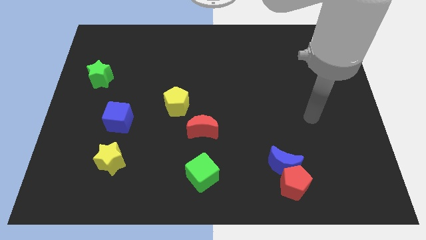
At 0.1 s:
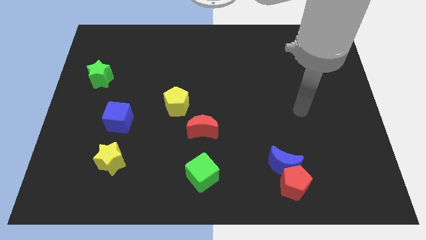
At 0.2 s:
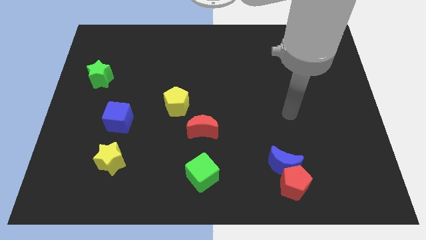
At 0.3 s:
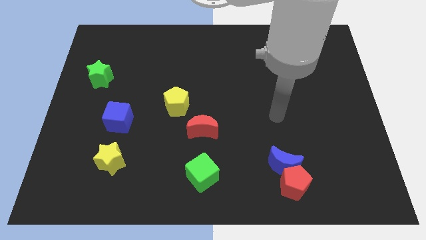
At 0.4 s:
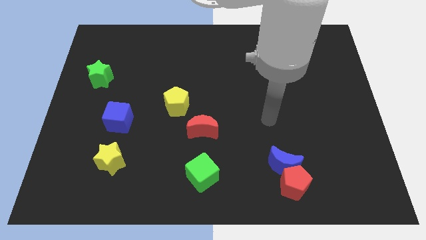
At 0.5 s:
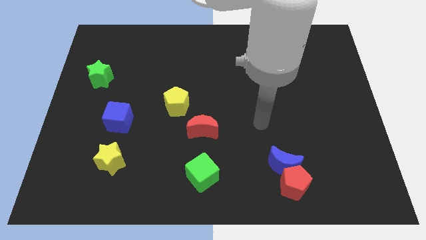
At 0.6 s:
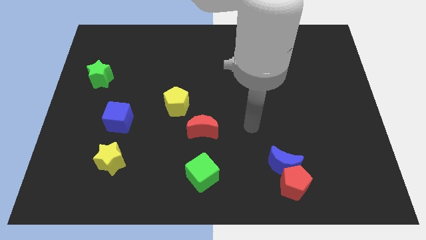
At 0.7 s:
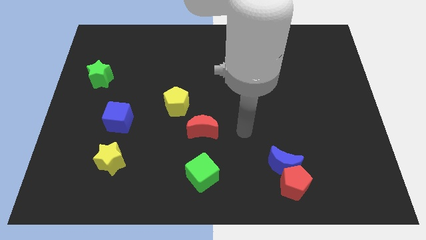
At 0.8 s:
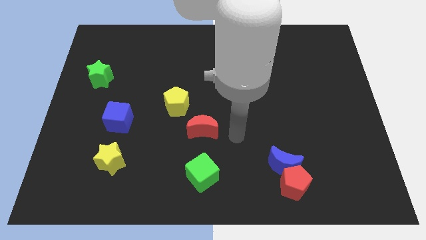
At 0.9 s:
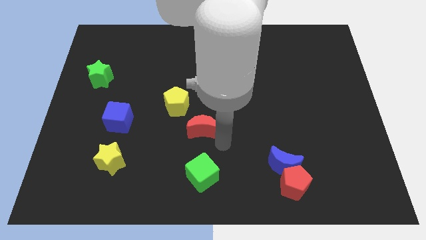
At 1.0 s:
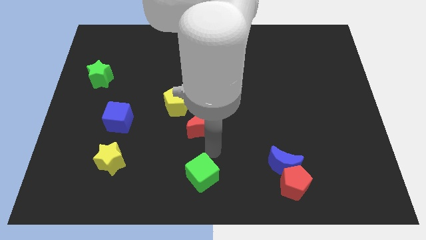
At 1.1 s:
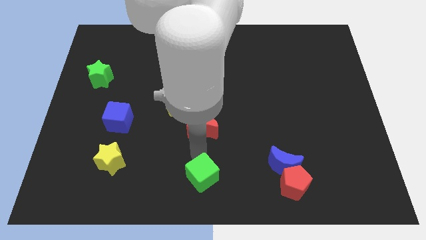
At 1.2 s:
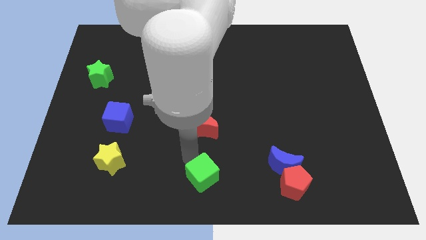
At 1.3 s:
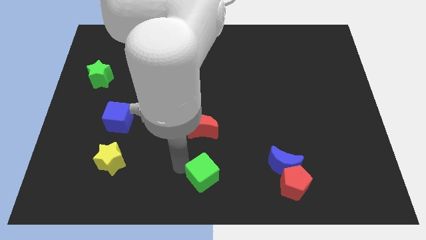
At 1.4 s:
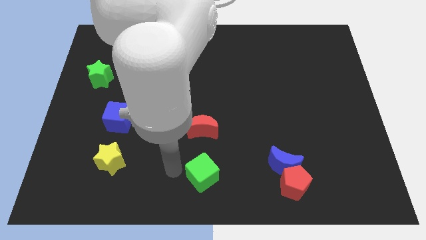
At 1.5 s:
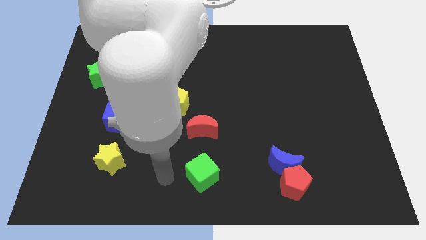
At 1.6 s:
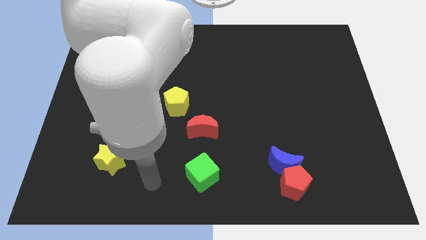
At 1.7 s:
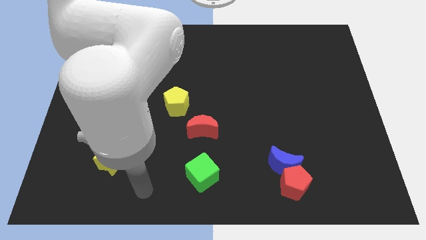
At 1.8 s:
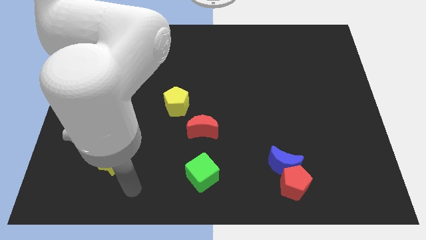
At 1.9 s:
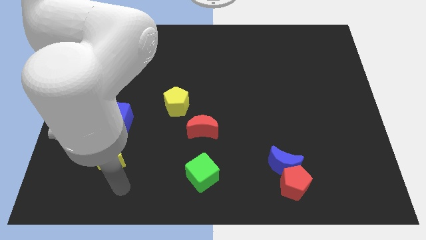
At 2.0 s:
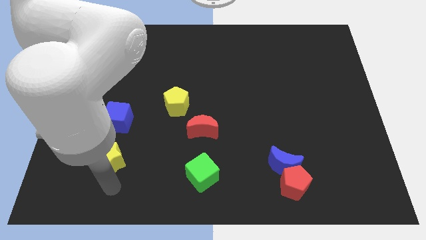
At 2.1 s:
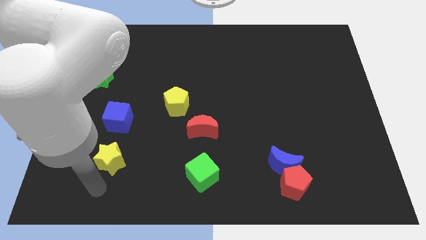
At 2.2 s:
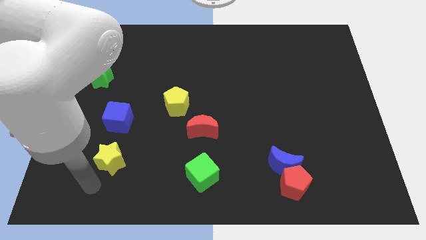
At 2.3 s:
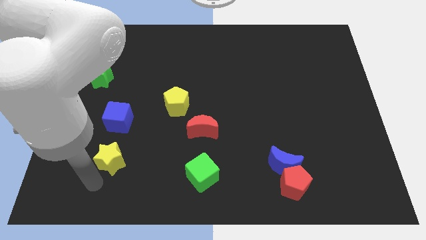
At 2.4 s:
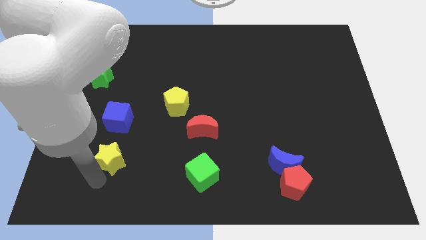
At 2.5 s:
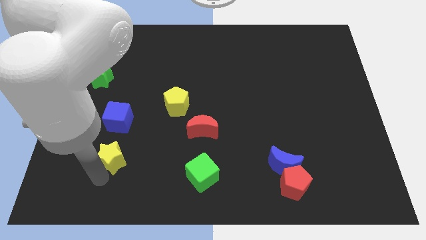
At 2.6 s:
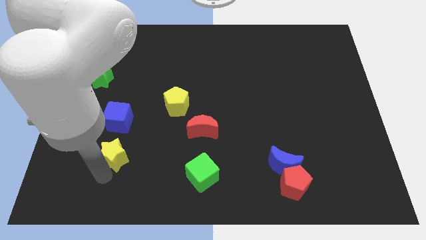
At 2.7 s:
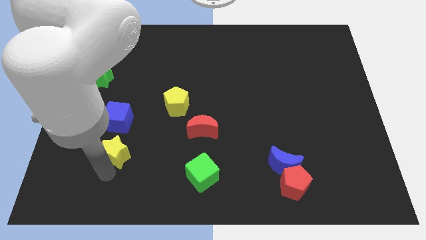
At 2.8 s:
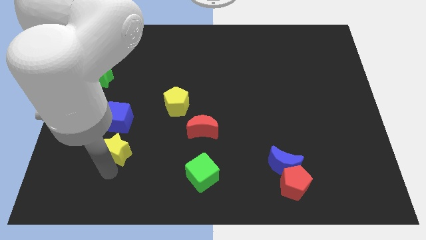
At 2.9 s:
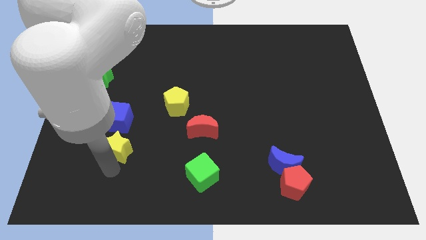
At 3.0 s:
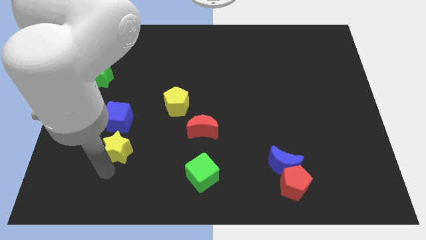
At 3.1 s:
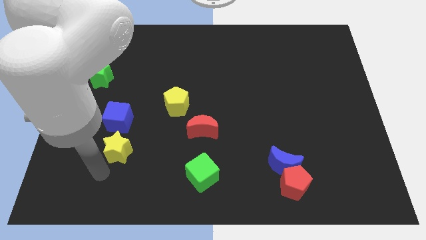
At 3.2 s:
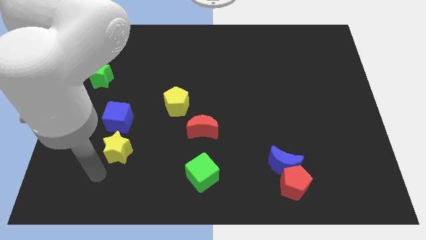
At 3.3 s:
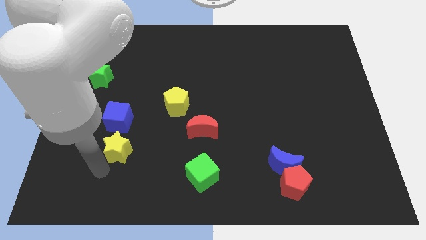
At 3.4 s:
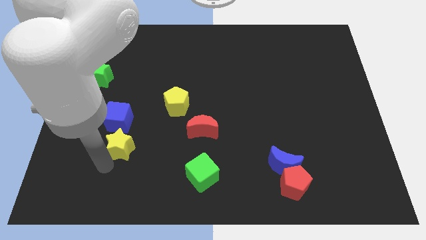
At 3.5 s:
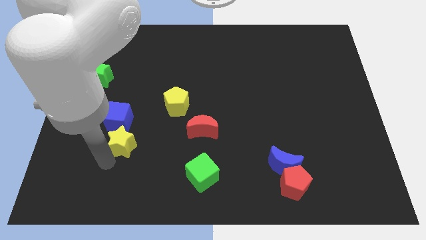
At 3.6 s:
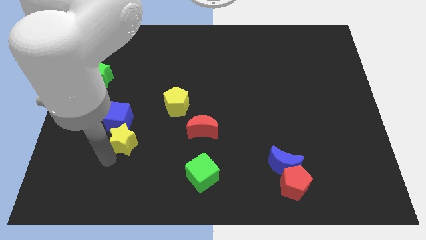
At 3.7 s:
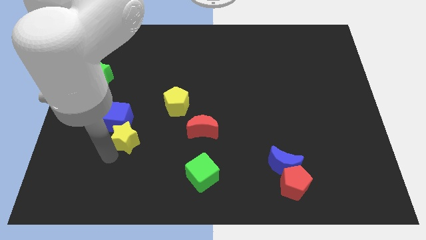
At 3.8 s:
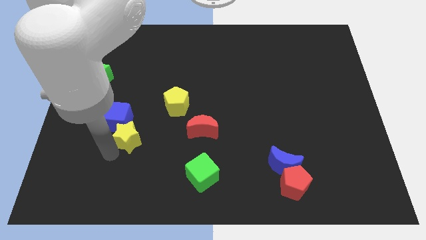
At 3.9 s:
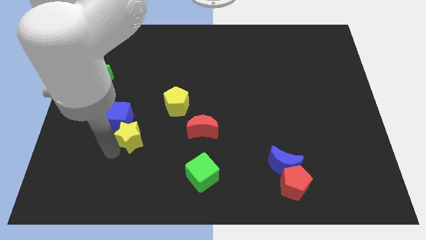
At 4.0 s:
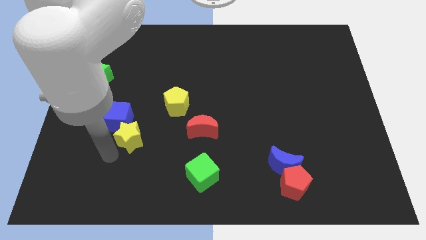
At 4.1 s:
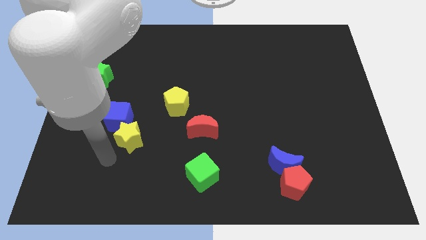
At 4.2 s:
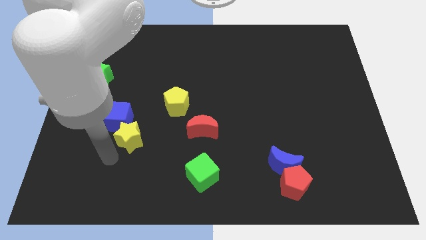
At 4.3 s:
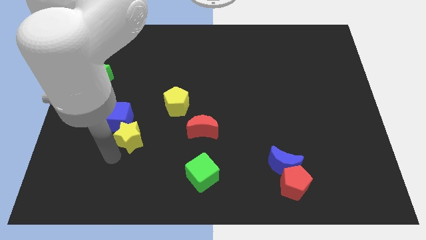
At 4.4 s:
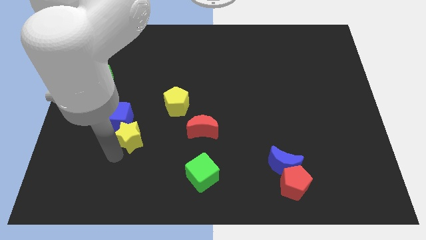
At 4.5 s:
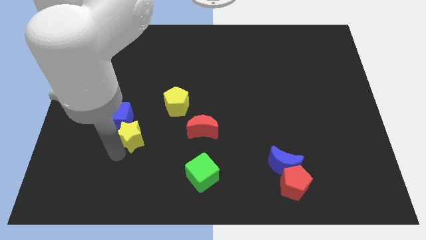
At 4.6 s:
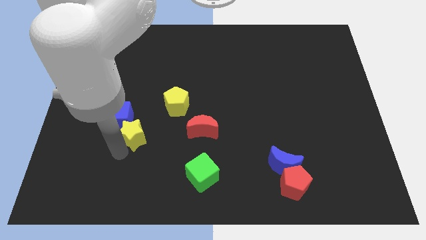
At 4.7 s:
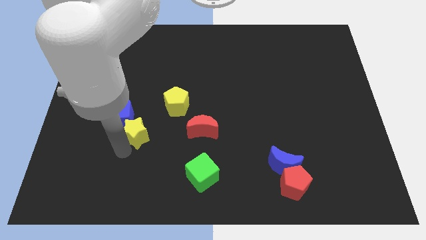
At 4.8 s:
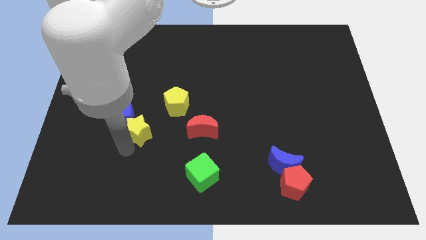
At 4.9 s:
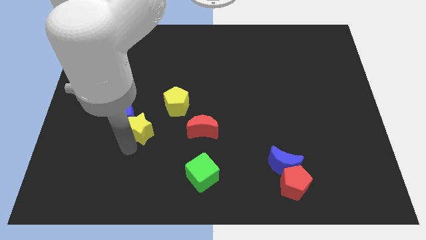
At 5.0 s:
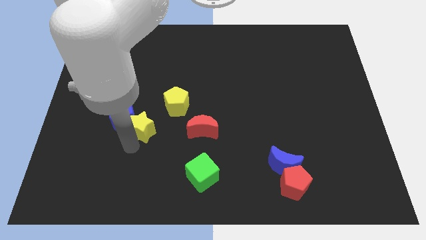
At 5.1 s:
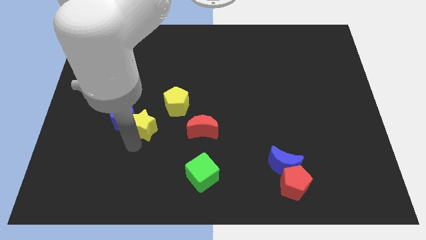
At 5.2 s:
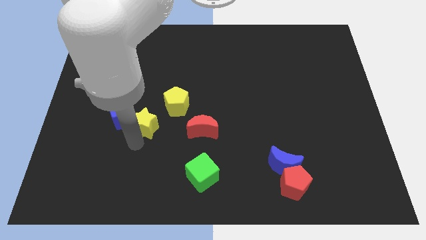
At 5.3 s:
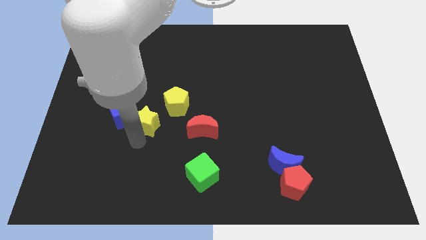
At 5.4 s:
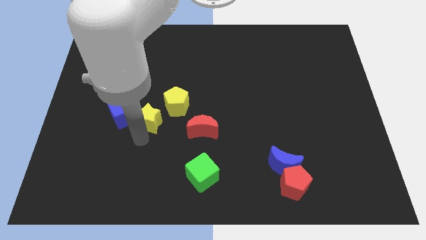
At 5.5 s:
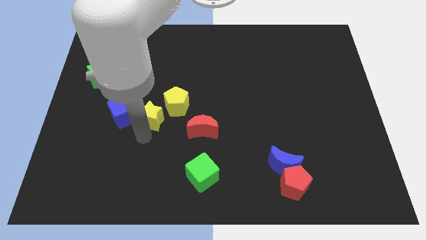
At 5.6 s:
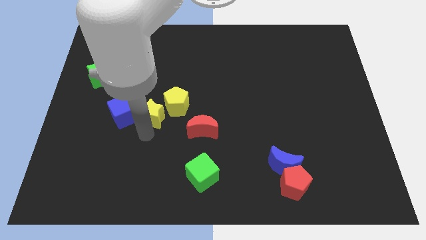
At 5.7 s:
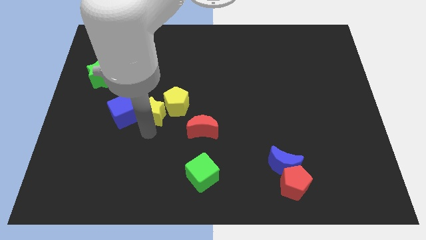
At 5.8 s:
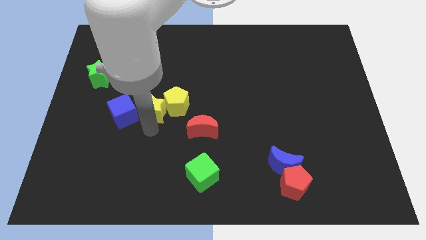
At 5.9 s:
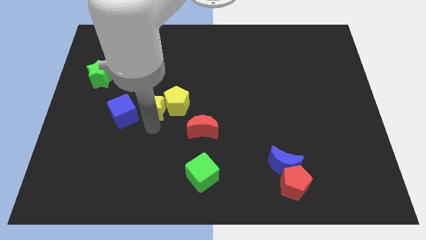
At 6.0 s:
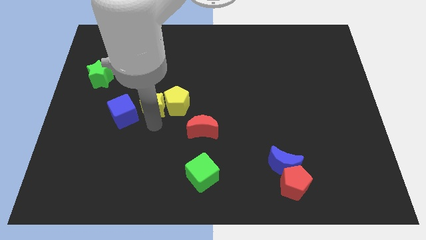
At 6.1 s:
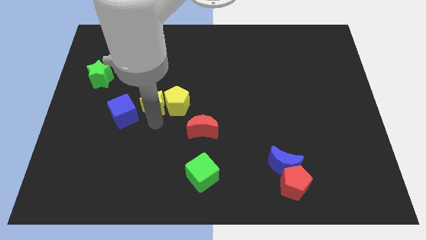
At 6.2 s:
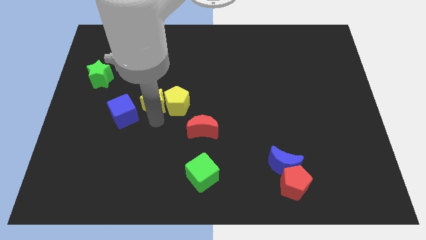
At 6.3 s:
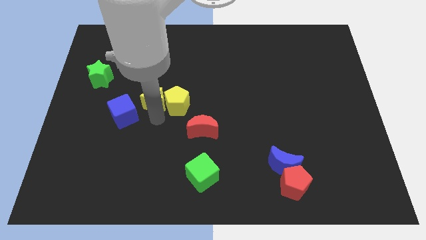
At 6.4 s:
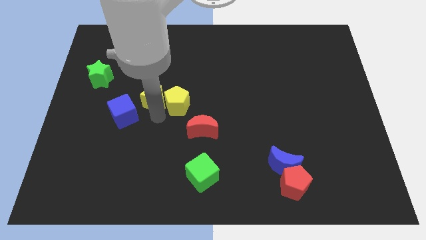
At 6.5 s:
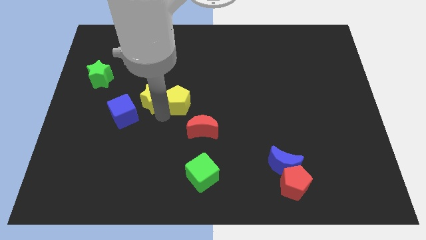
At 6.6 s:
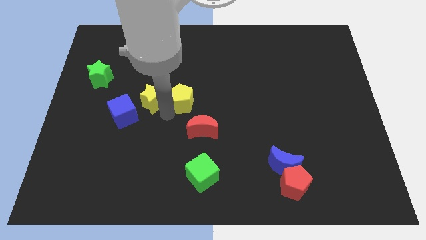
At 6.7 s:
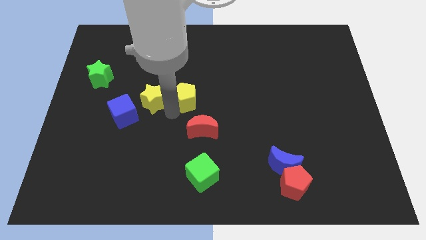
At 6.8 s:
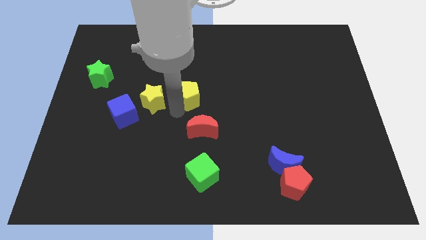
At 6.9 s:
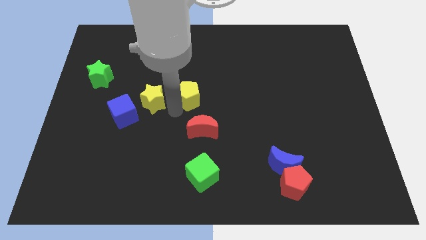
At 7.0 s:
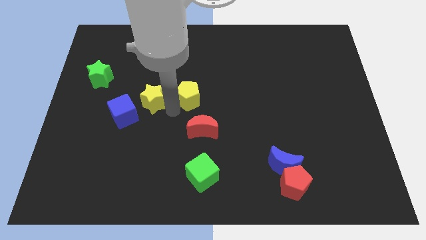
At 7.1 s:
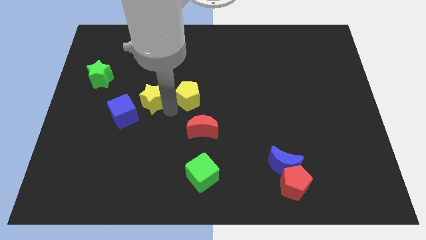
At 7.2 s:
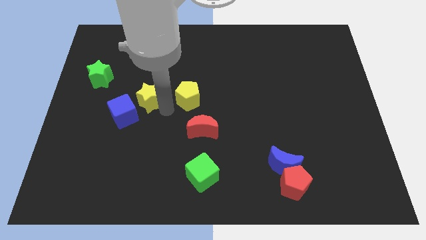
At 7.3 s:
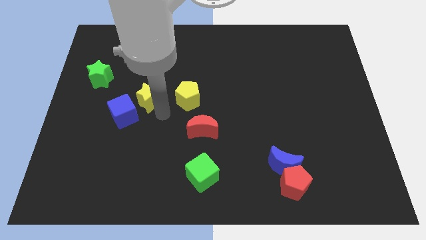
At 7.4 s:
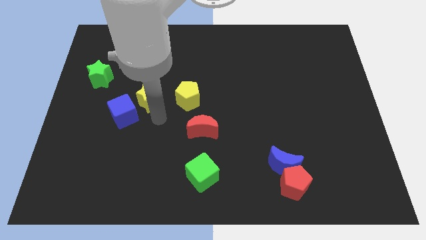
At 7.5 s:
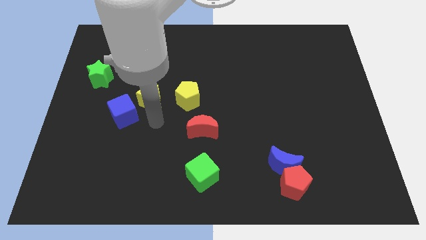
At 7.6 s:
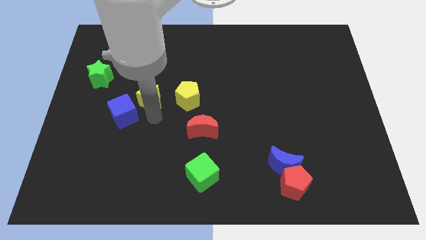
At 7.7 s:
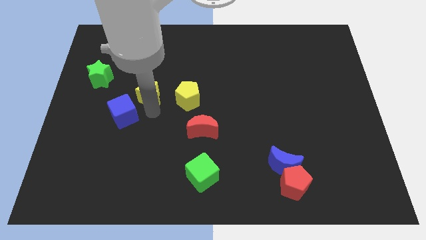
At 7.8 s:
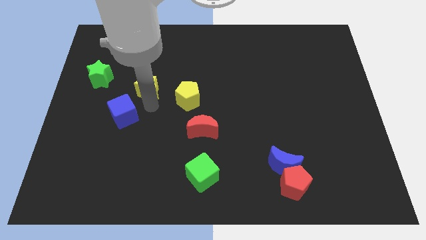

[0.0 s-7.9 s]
slide the yellow star to the right side of the green star
